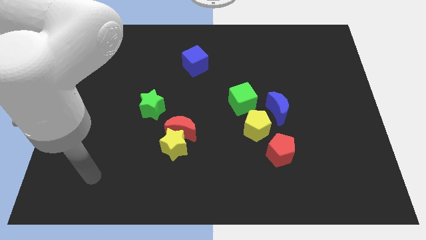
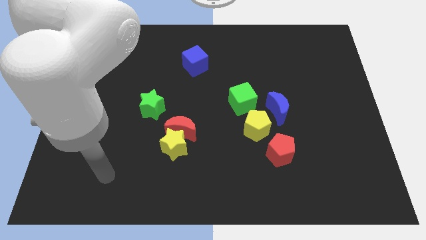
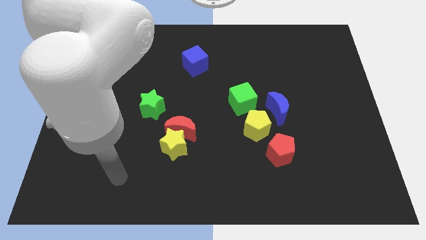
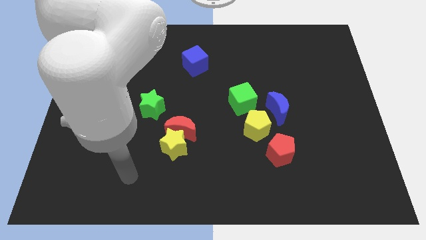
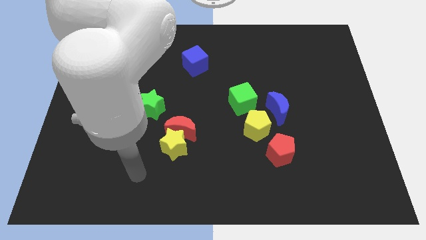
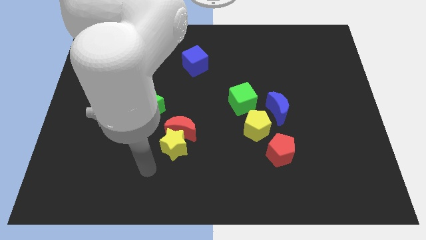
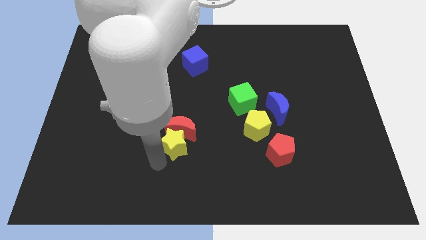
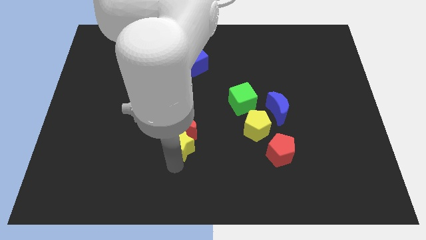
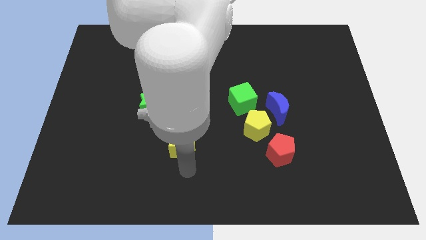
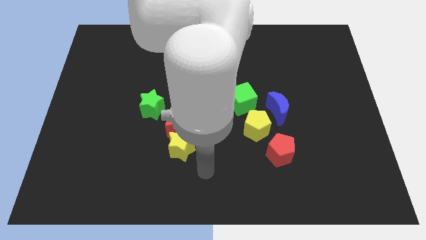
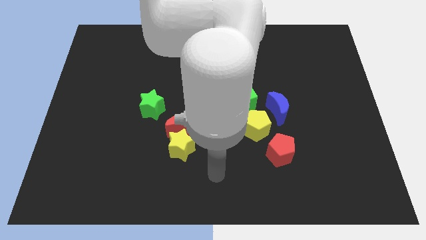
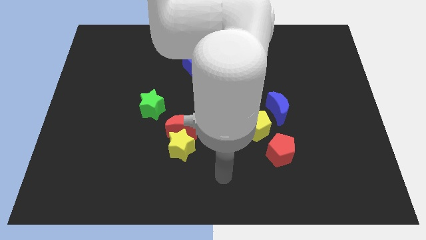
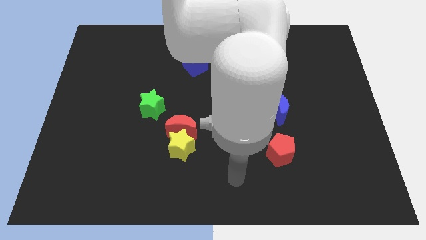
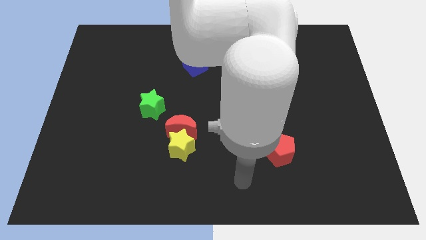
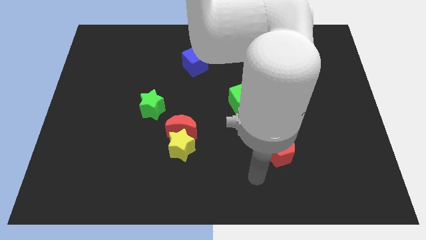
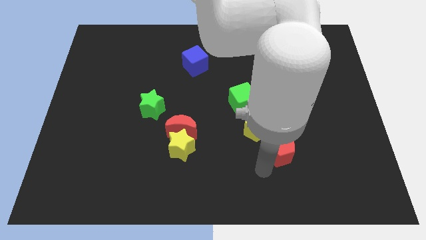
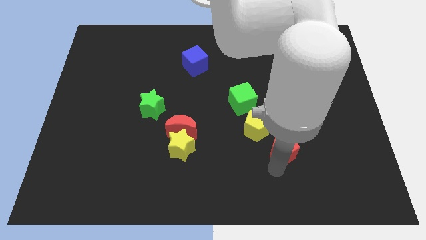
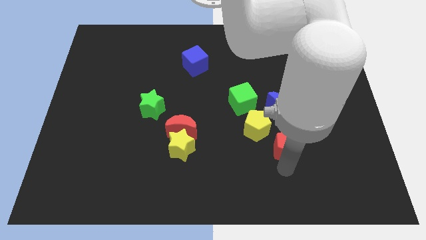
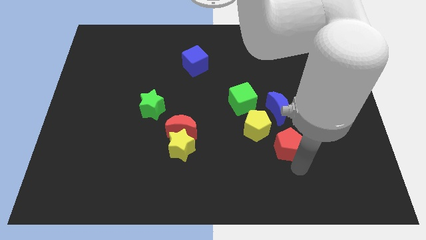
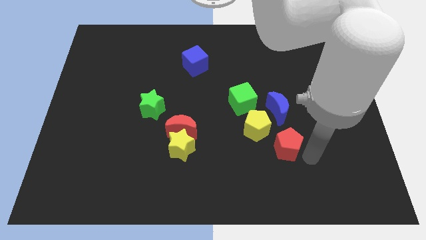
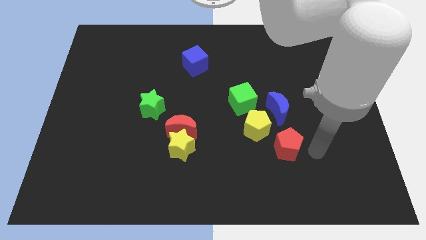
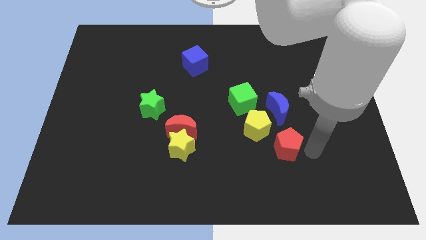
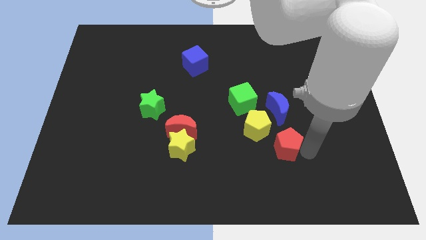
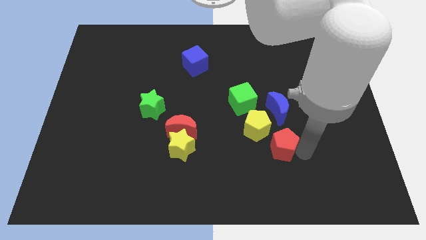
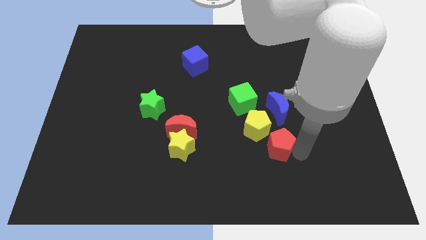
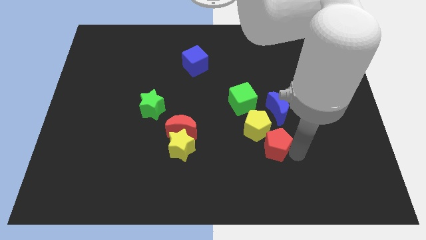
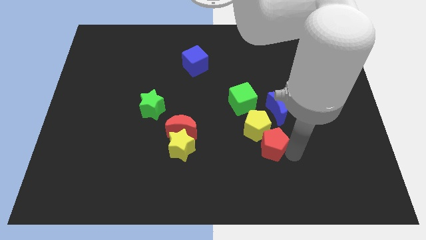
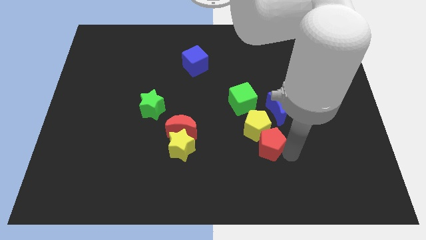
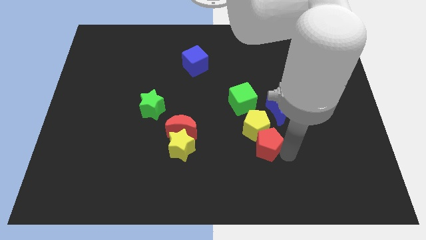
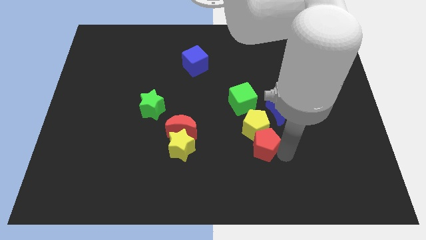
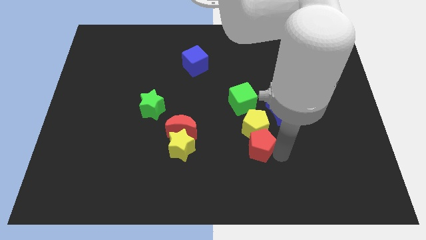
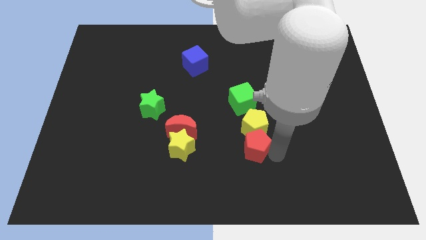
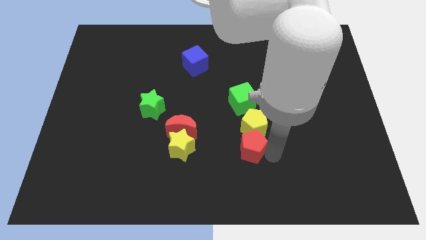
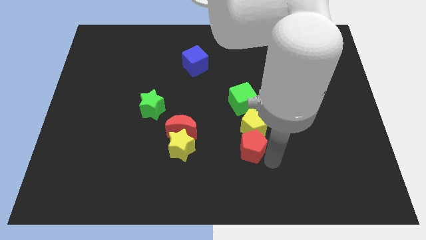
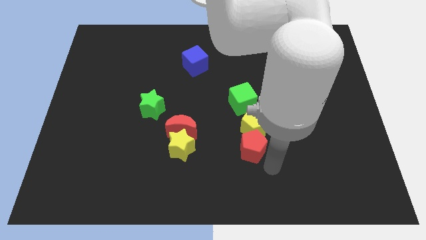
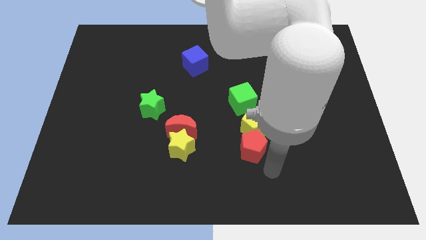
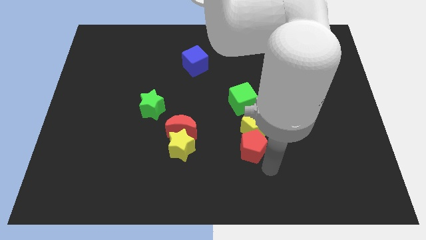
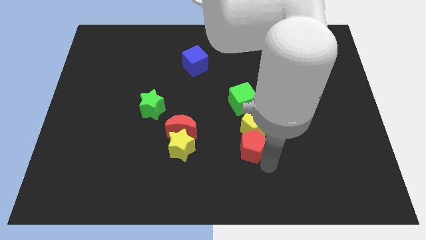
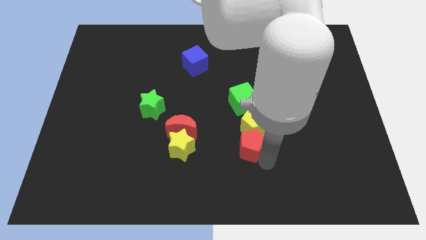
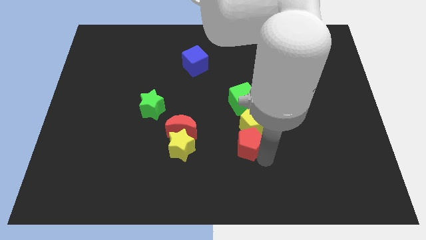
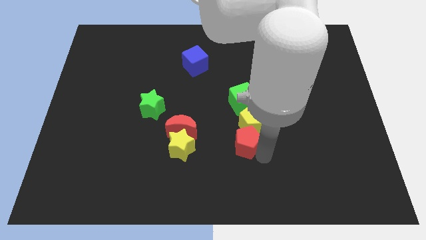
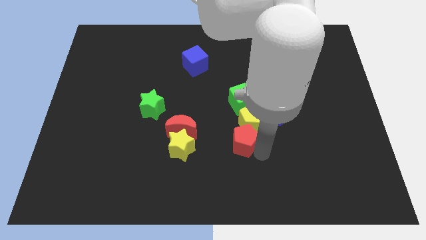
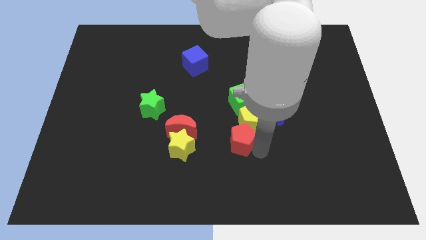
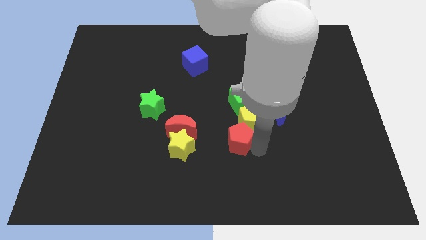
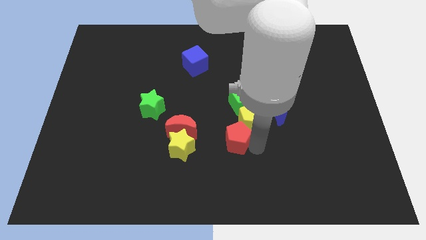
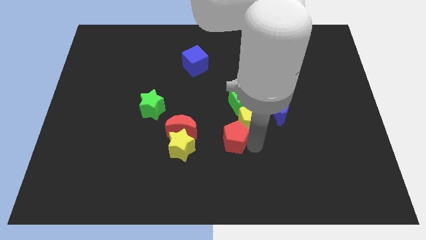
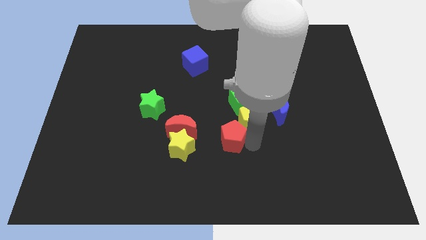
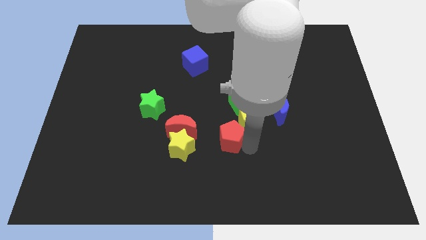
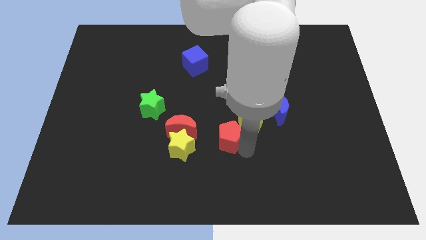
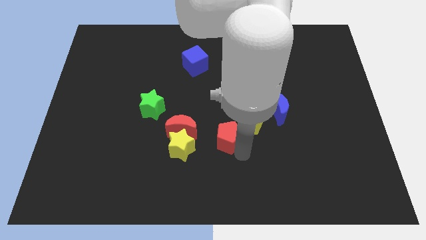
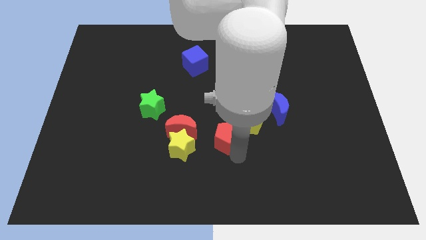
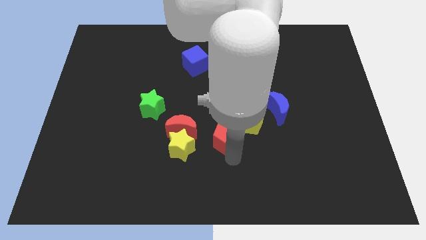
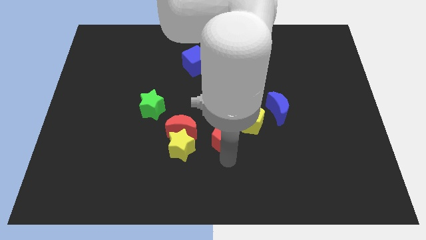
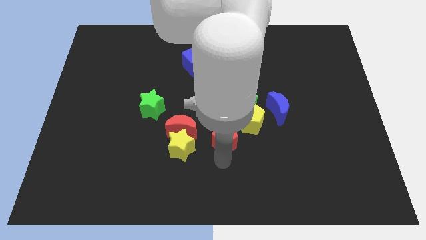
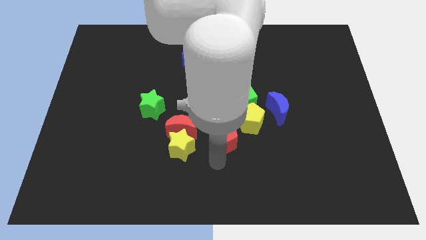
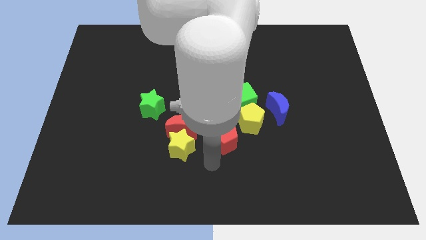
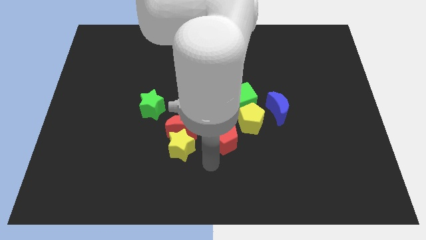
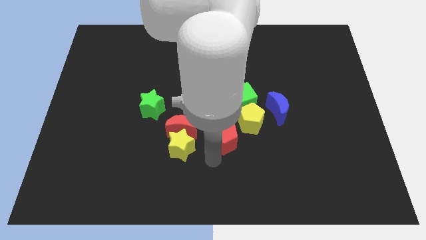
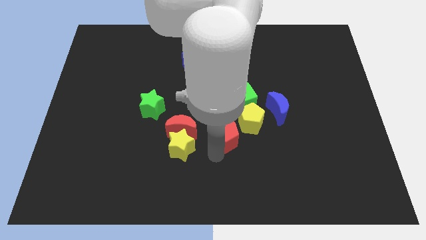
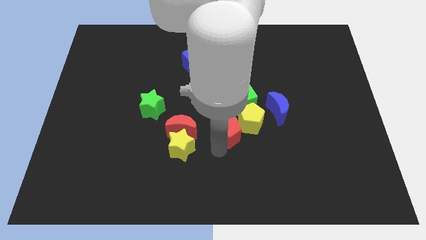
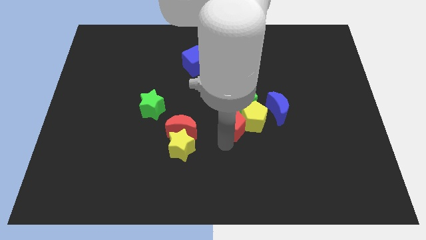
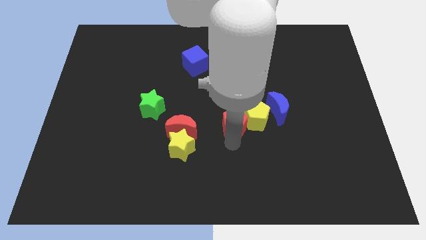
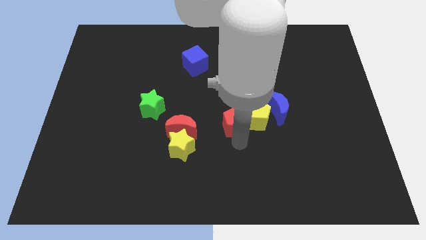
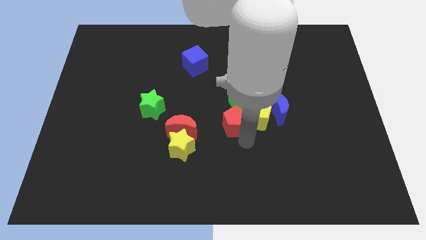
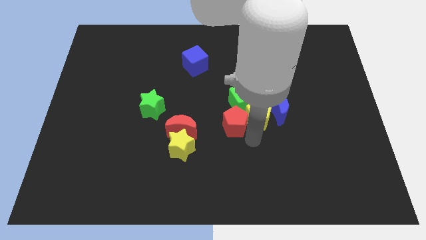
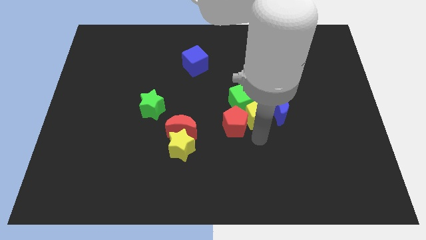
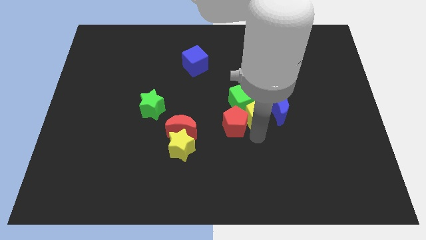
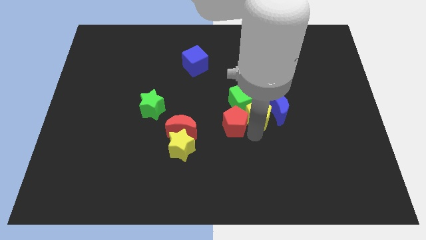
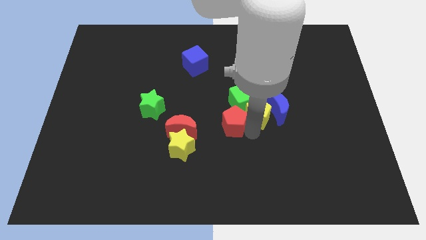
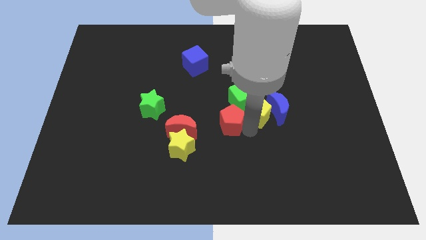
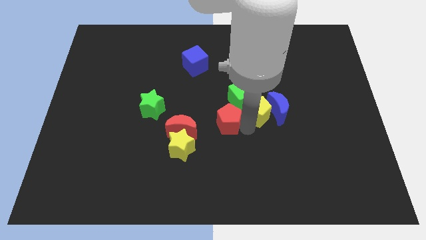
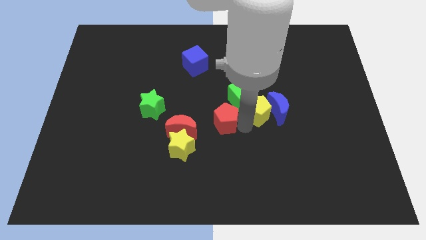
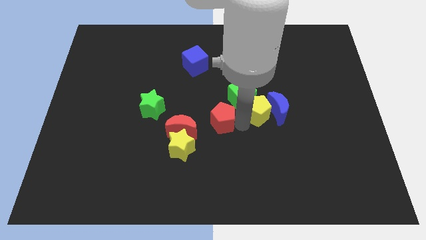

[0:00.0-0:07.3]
put the red pentagon to the top right of the red moon
